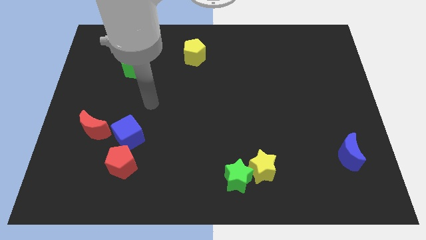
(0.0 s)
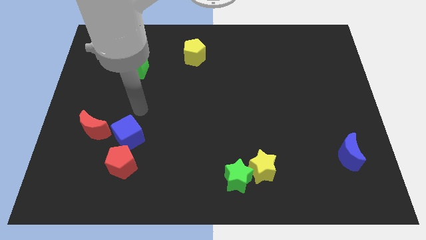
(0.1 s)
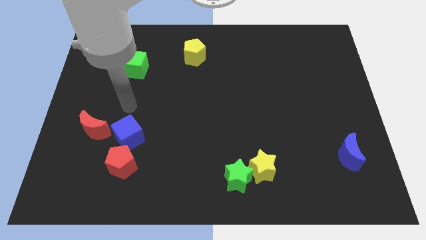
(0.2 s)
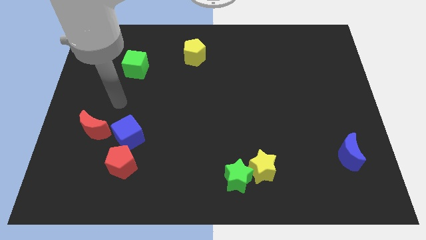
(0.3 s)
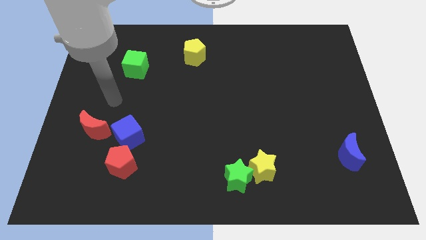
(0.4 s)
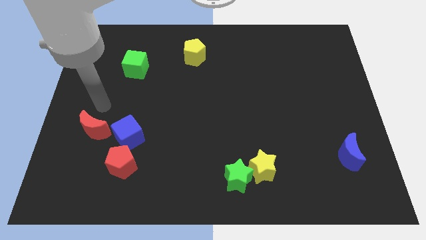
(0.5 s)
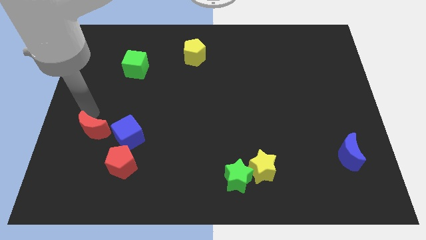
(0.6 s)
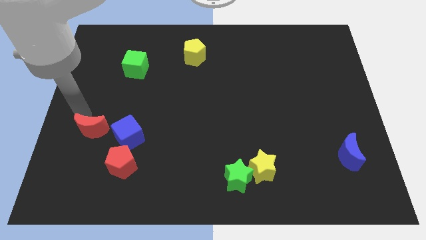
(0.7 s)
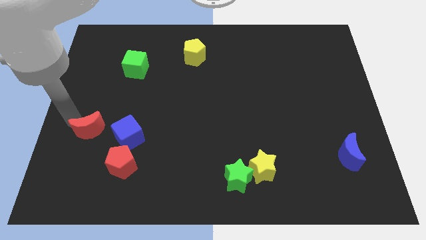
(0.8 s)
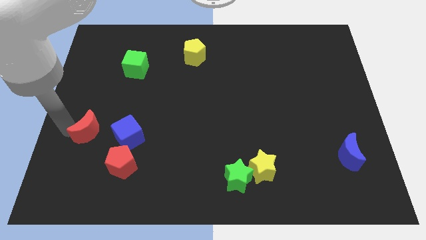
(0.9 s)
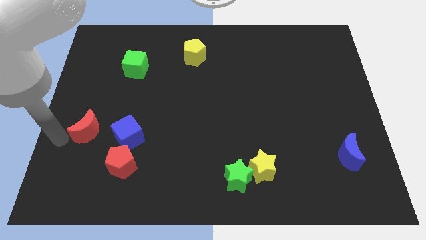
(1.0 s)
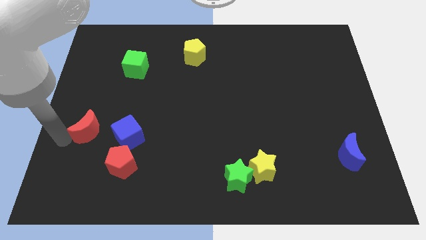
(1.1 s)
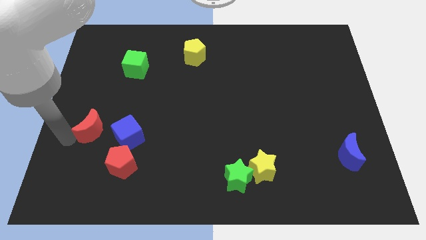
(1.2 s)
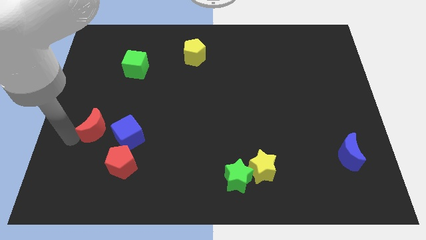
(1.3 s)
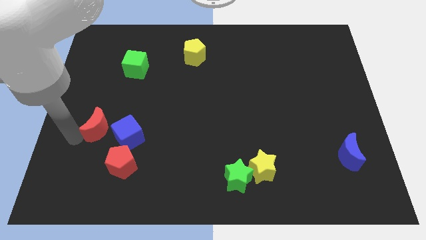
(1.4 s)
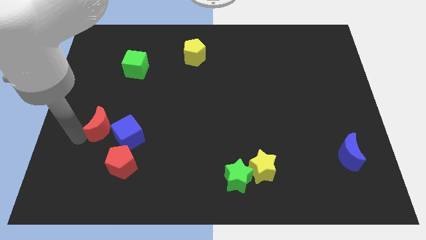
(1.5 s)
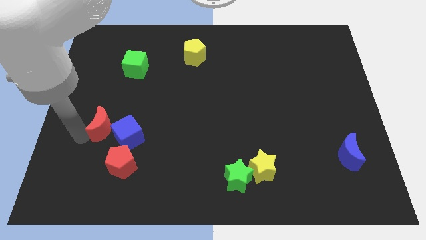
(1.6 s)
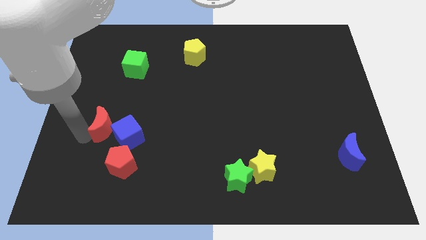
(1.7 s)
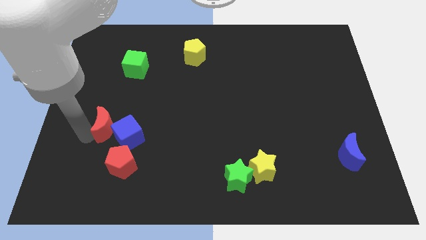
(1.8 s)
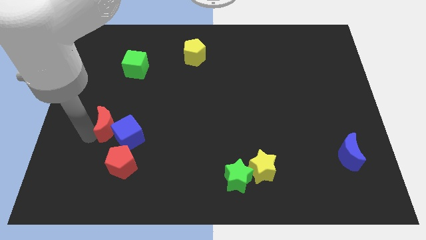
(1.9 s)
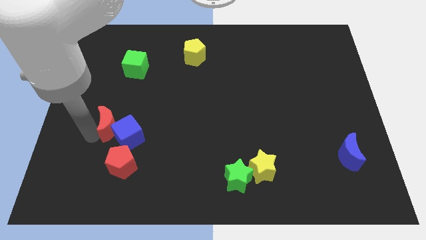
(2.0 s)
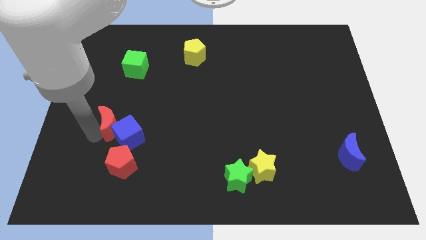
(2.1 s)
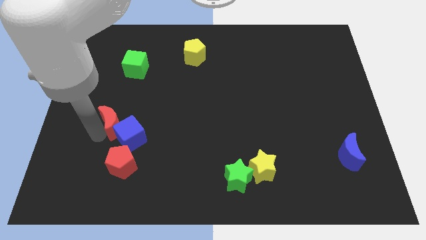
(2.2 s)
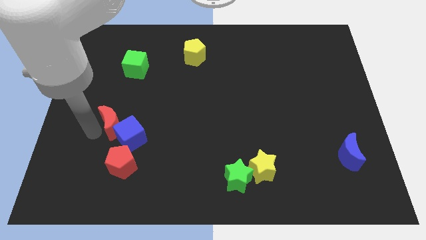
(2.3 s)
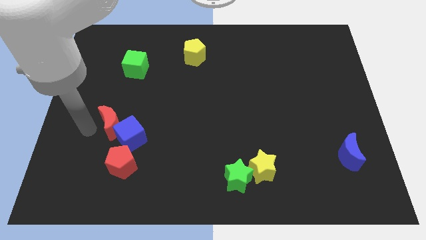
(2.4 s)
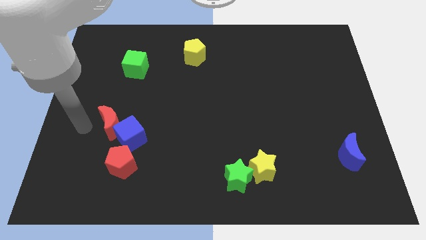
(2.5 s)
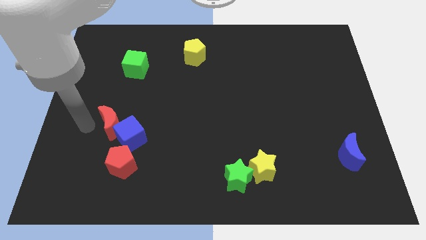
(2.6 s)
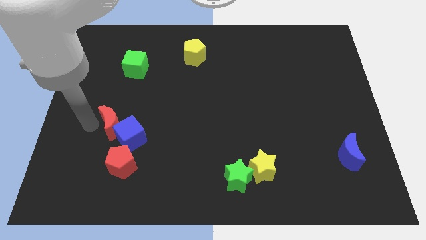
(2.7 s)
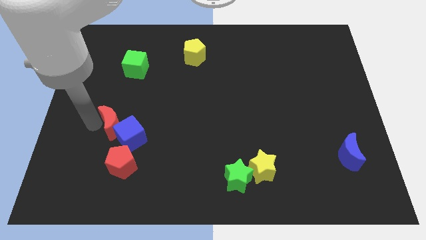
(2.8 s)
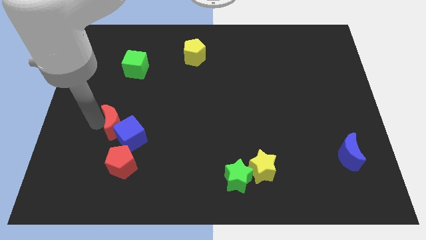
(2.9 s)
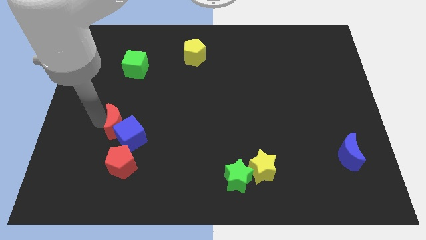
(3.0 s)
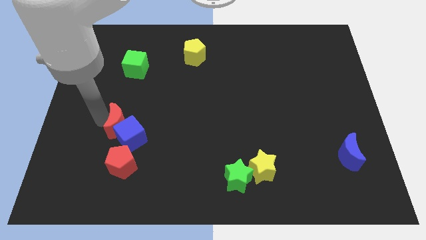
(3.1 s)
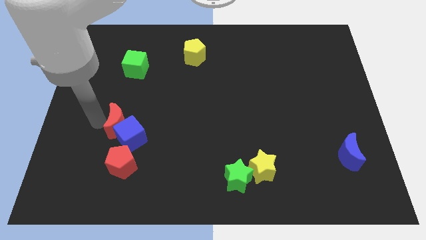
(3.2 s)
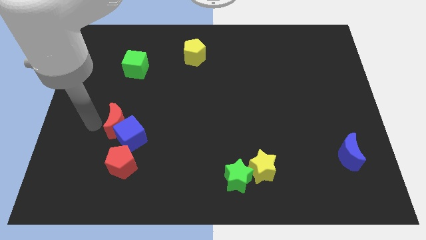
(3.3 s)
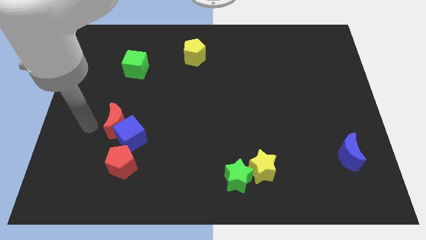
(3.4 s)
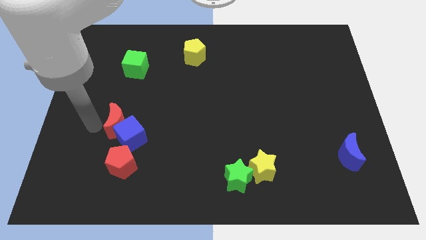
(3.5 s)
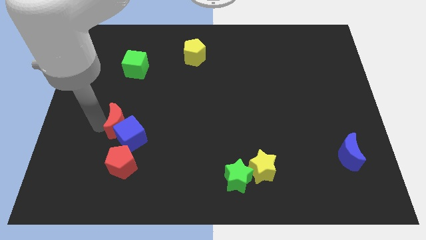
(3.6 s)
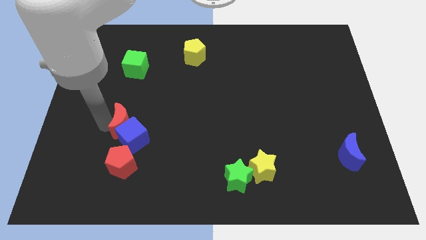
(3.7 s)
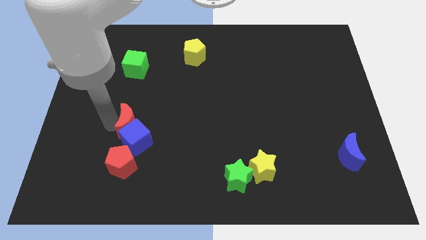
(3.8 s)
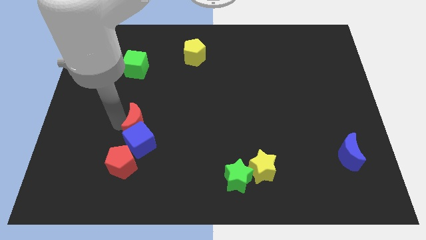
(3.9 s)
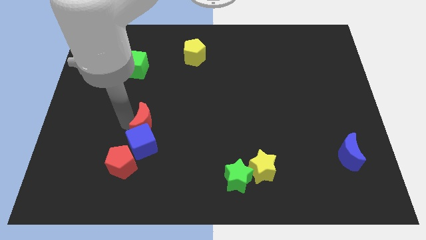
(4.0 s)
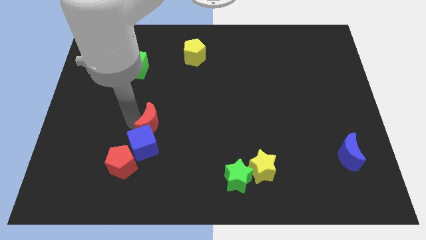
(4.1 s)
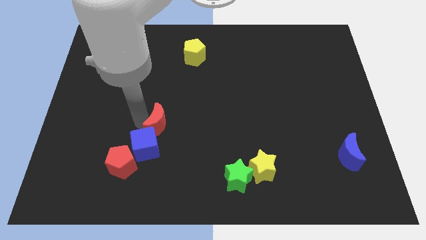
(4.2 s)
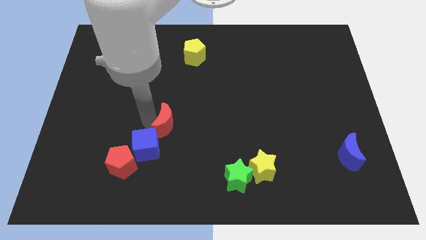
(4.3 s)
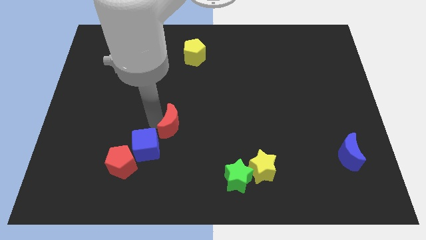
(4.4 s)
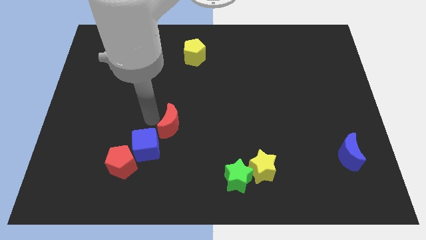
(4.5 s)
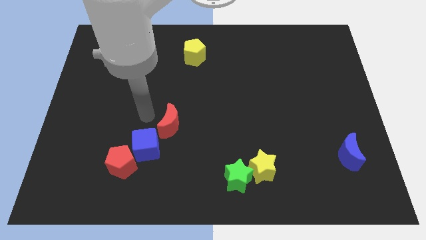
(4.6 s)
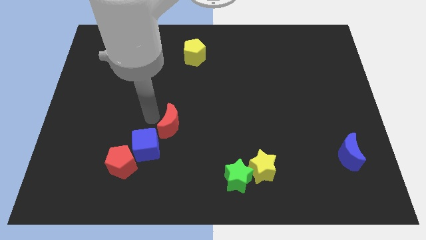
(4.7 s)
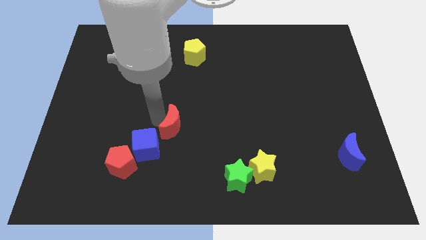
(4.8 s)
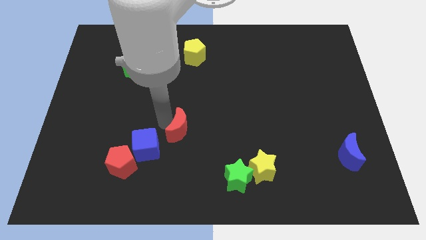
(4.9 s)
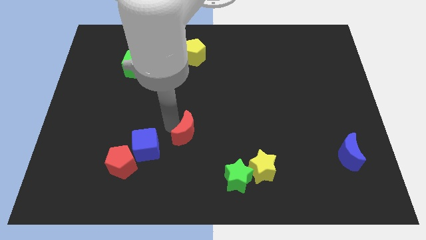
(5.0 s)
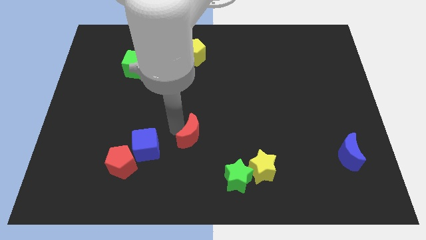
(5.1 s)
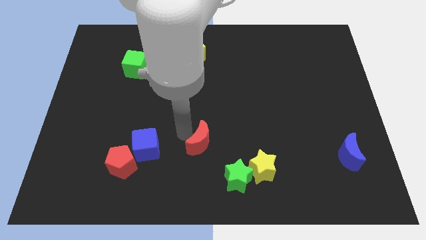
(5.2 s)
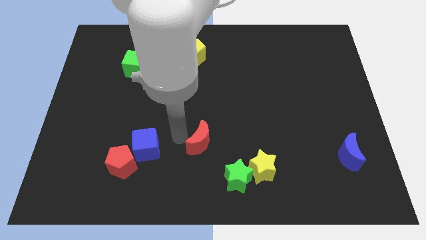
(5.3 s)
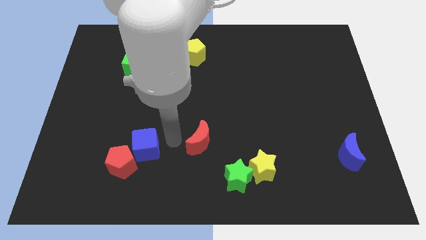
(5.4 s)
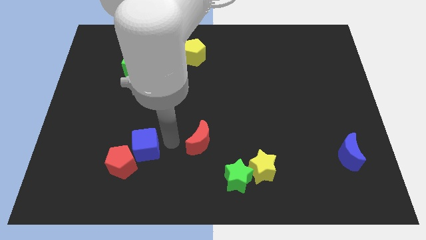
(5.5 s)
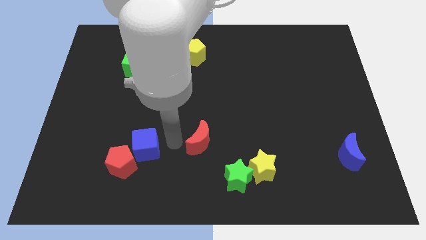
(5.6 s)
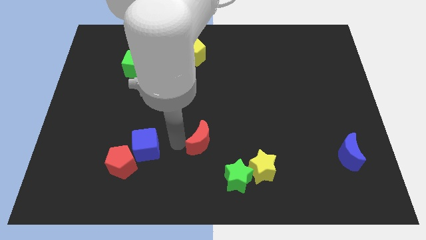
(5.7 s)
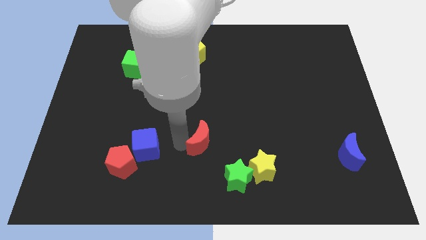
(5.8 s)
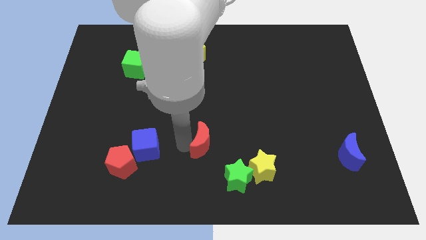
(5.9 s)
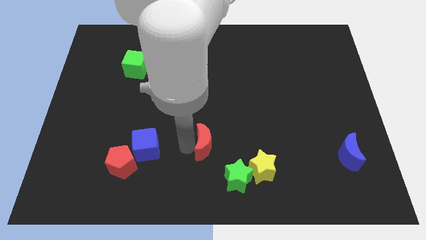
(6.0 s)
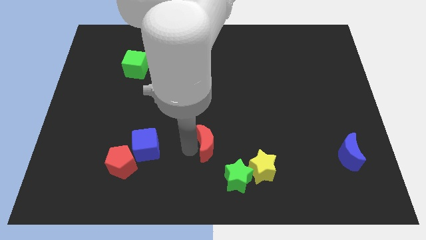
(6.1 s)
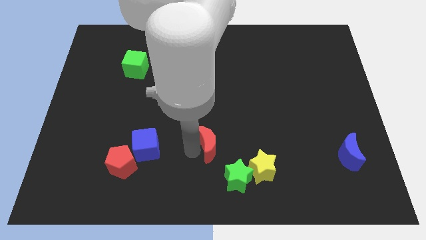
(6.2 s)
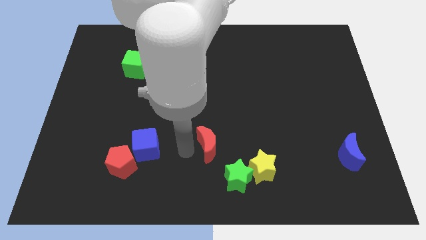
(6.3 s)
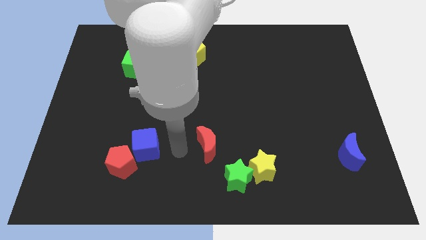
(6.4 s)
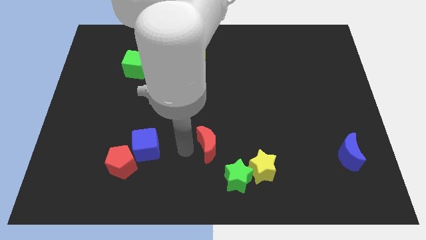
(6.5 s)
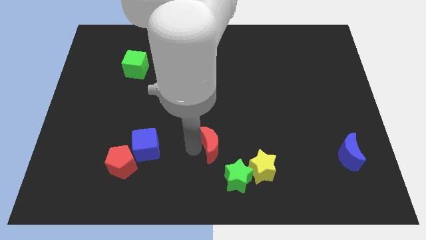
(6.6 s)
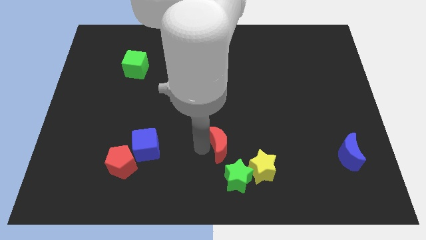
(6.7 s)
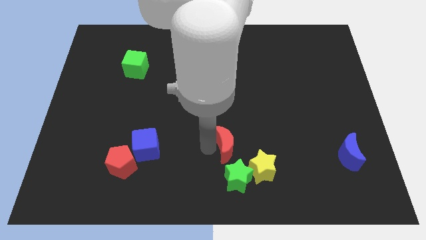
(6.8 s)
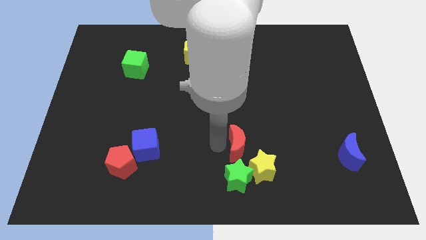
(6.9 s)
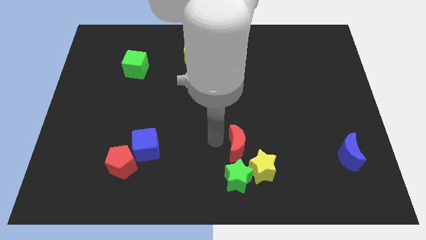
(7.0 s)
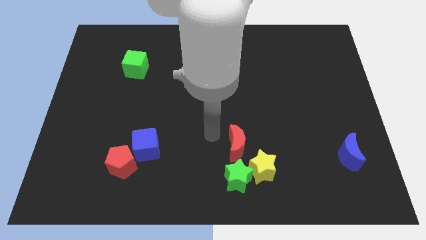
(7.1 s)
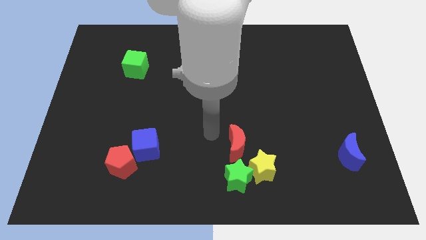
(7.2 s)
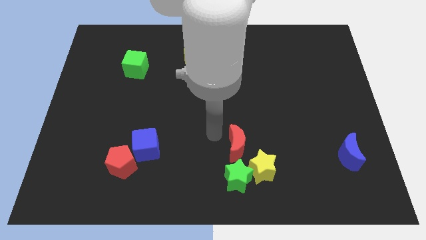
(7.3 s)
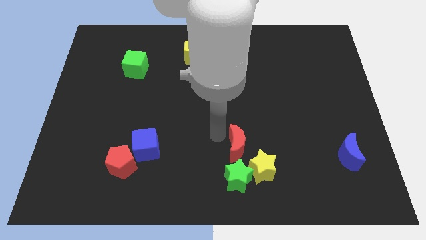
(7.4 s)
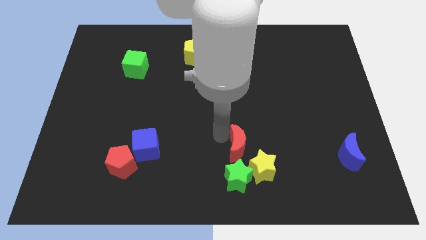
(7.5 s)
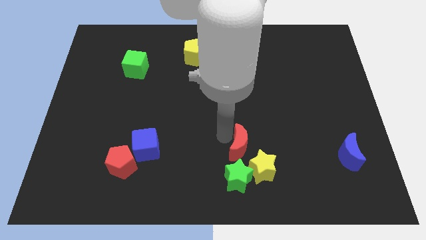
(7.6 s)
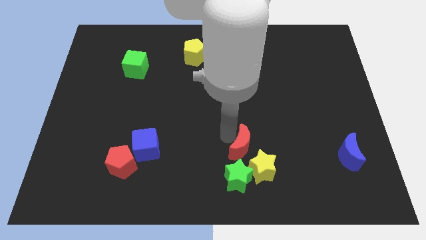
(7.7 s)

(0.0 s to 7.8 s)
slide the red moon to the top right side of the green star
